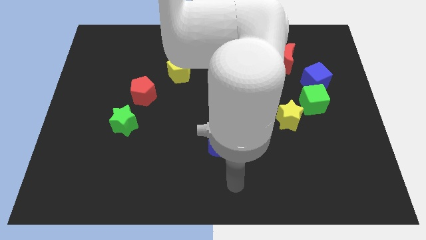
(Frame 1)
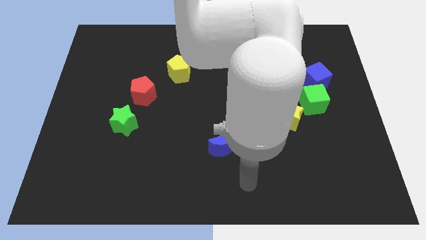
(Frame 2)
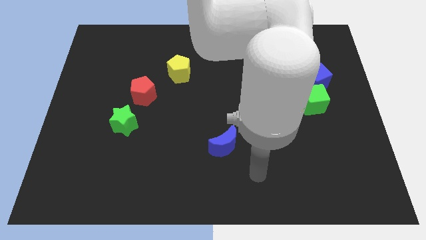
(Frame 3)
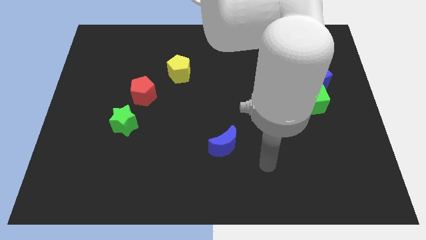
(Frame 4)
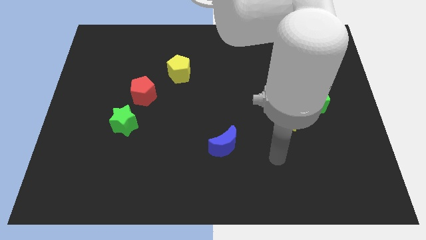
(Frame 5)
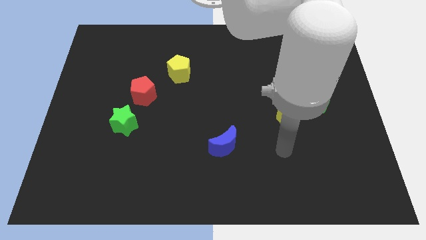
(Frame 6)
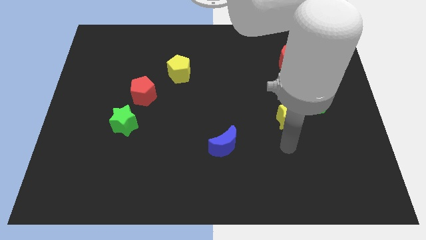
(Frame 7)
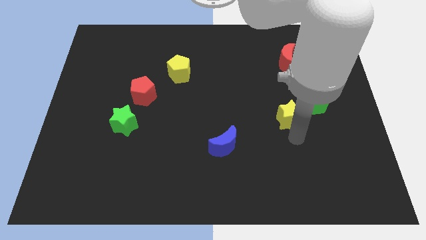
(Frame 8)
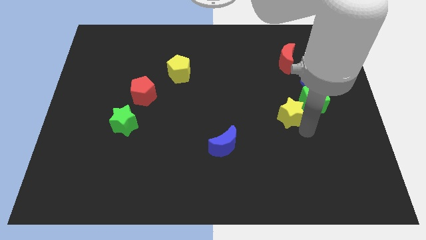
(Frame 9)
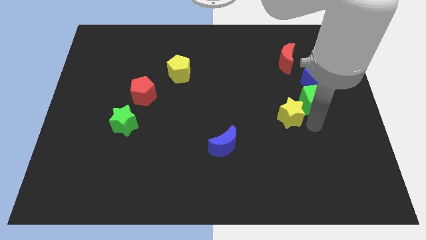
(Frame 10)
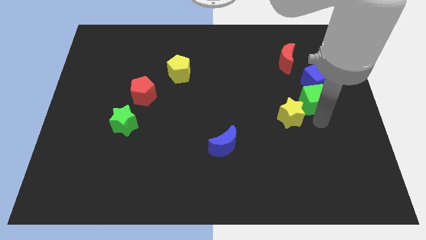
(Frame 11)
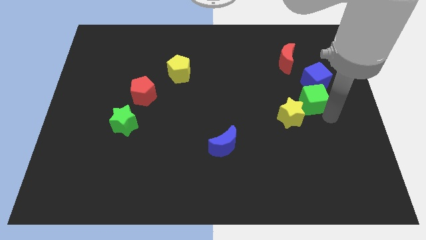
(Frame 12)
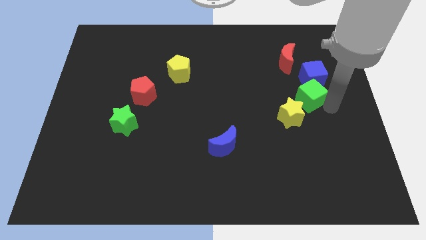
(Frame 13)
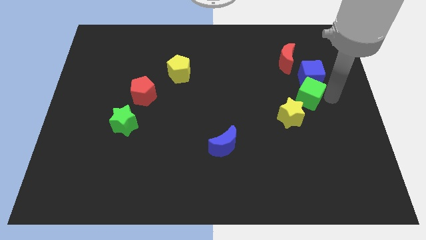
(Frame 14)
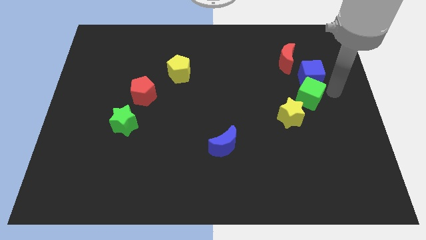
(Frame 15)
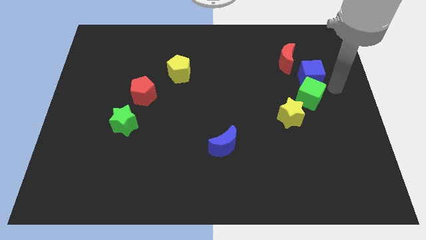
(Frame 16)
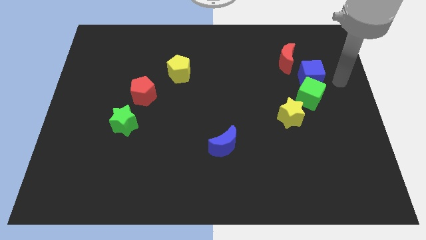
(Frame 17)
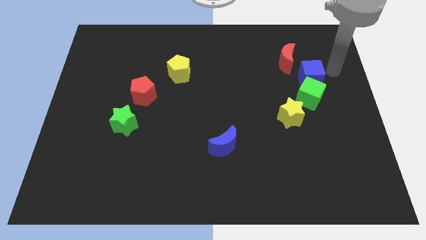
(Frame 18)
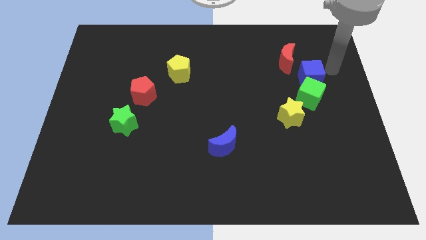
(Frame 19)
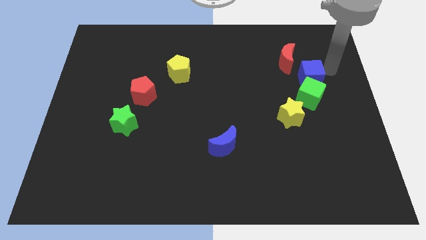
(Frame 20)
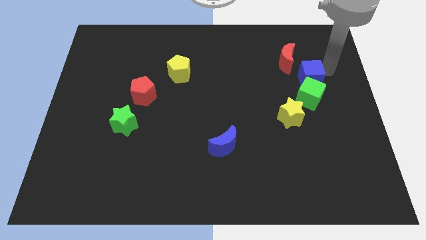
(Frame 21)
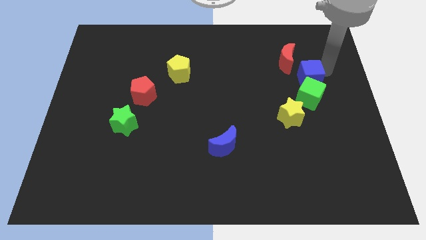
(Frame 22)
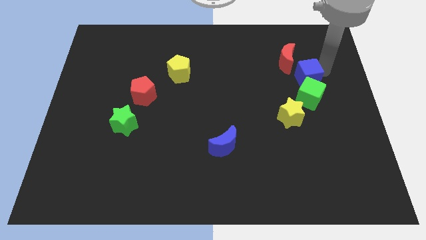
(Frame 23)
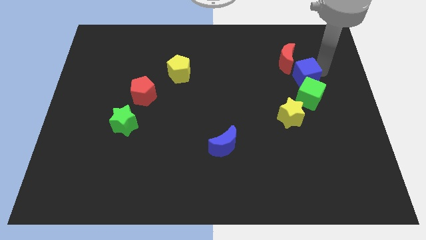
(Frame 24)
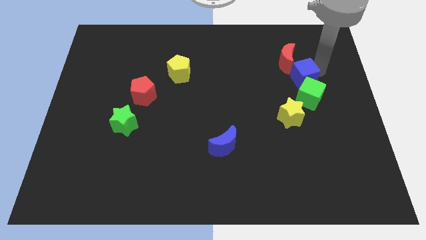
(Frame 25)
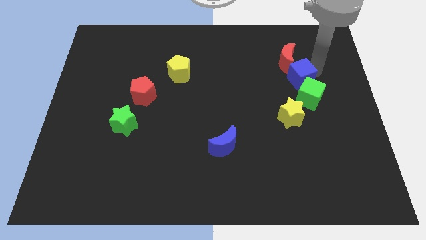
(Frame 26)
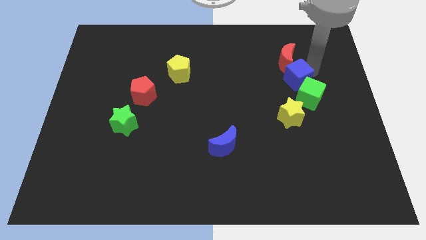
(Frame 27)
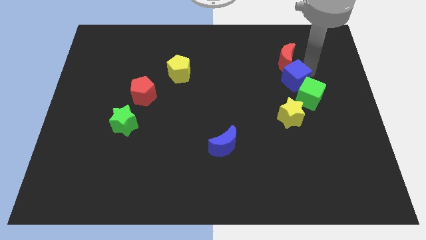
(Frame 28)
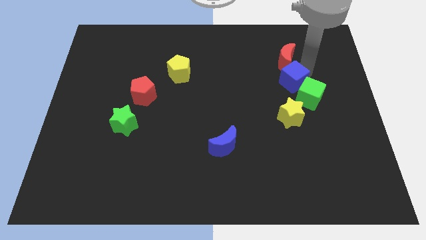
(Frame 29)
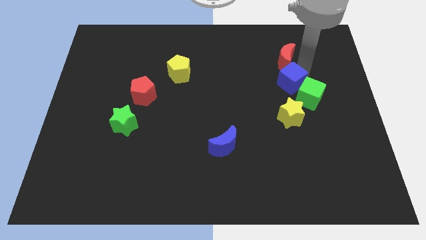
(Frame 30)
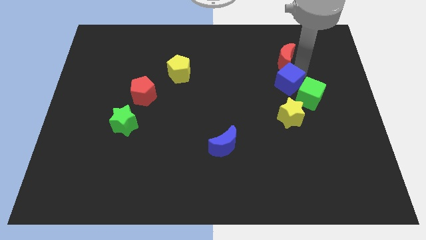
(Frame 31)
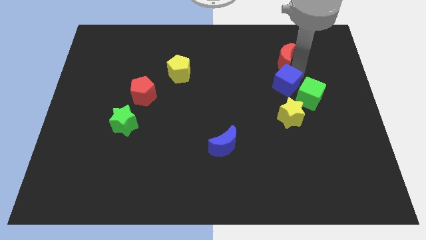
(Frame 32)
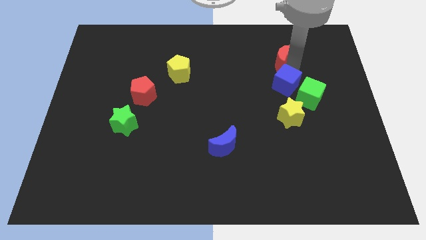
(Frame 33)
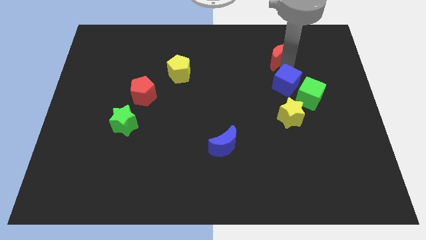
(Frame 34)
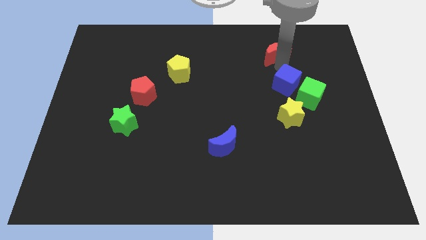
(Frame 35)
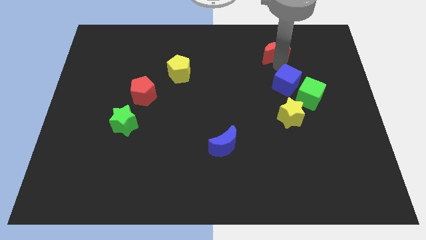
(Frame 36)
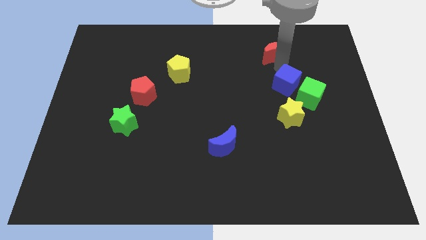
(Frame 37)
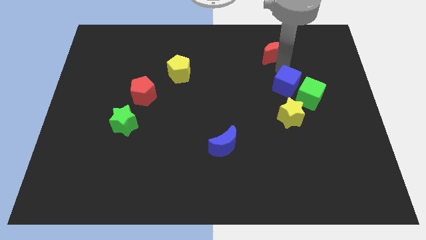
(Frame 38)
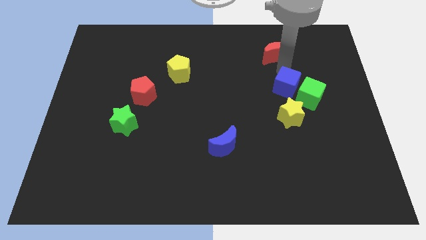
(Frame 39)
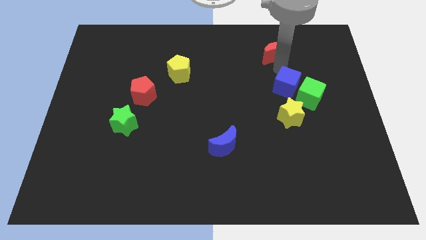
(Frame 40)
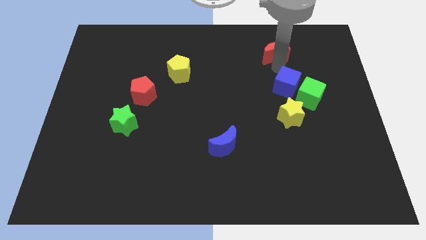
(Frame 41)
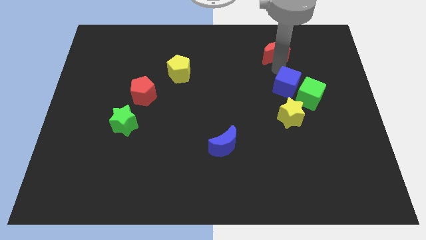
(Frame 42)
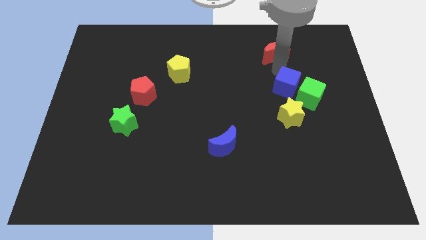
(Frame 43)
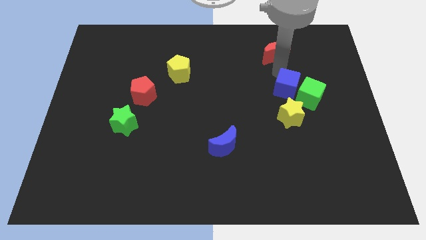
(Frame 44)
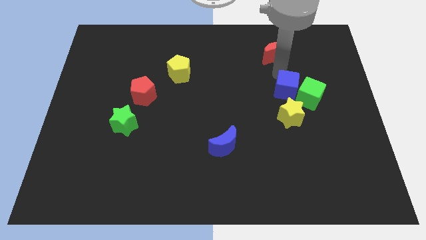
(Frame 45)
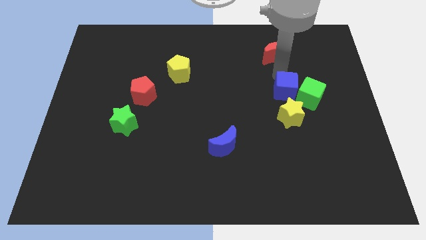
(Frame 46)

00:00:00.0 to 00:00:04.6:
slightly move the blue cube downwards and to the left diagonally

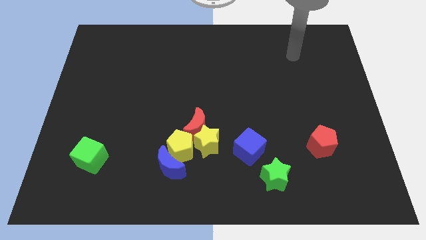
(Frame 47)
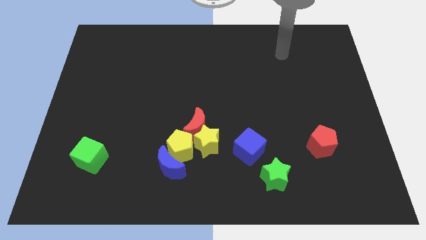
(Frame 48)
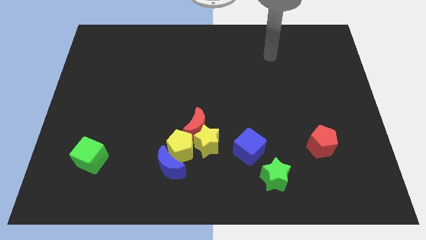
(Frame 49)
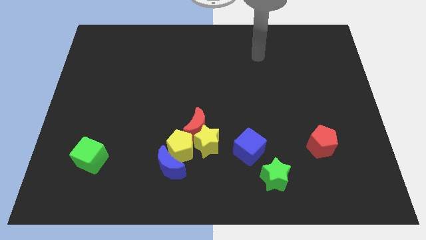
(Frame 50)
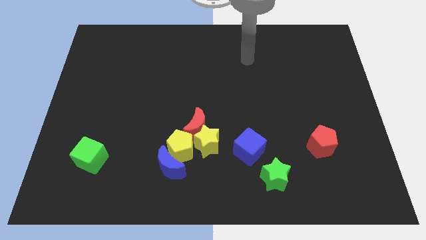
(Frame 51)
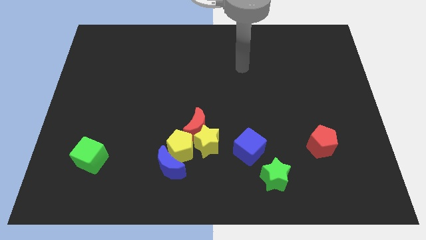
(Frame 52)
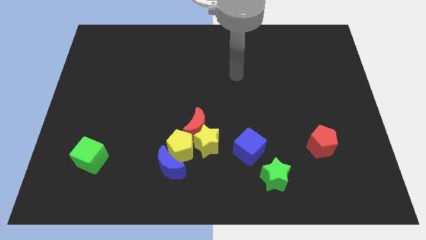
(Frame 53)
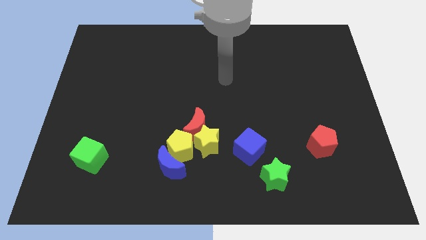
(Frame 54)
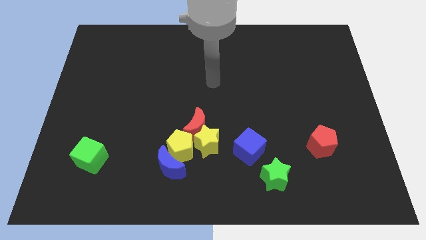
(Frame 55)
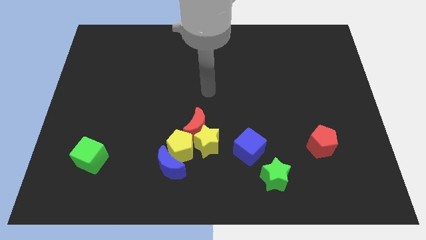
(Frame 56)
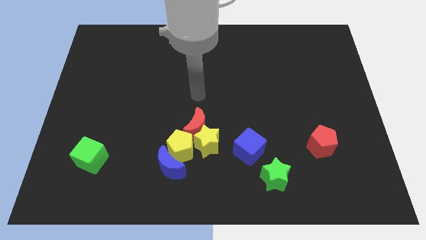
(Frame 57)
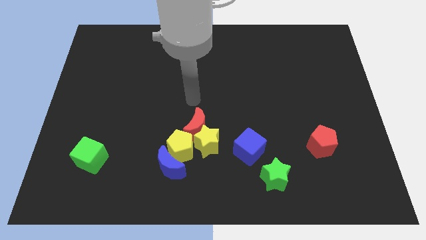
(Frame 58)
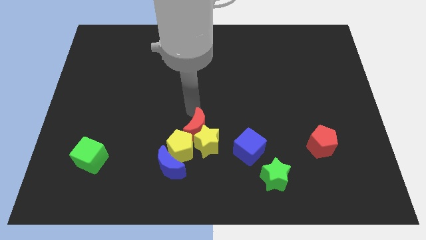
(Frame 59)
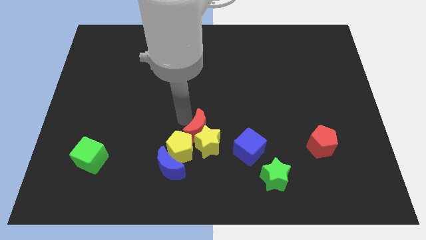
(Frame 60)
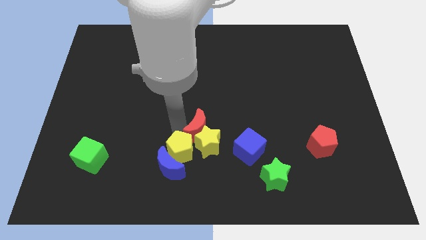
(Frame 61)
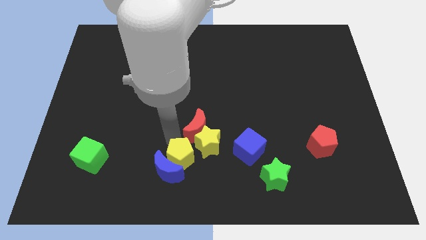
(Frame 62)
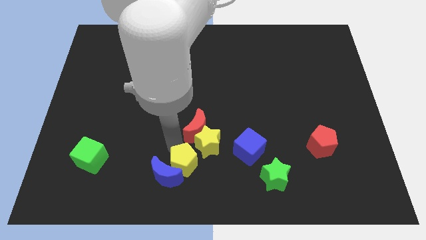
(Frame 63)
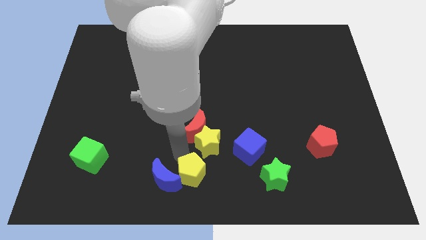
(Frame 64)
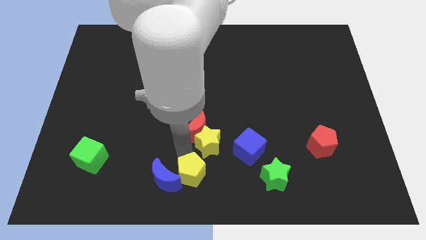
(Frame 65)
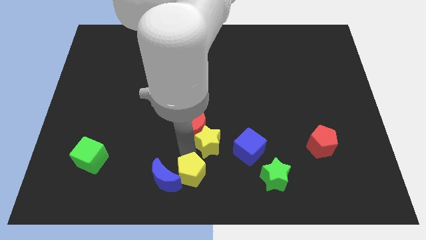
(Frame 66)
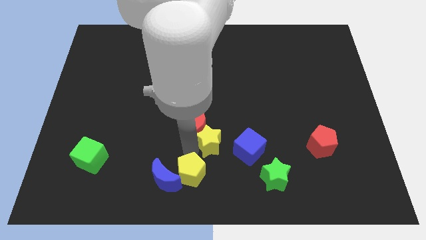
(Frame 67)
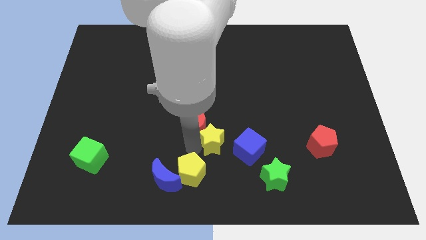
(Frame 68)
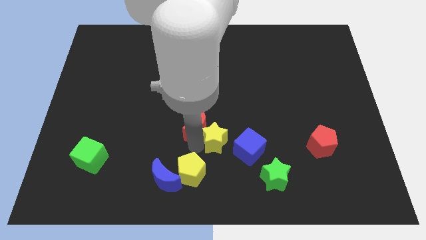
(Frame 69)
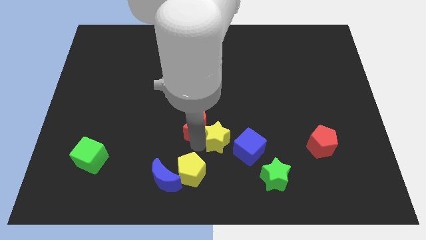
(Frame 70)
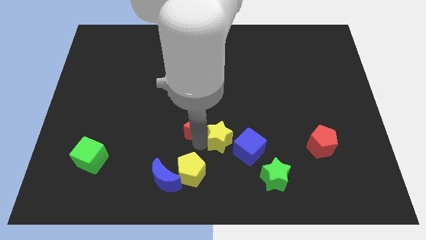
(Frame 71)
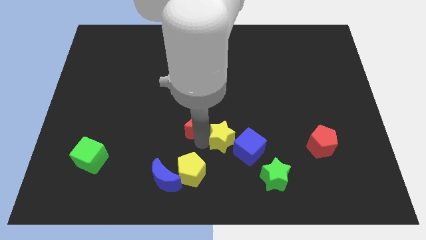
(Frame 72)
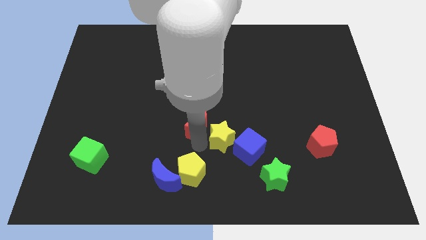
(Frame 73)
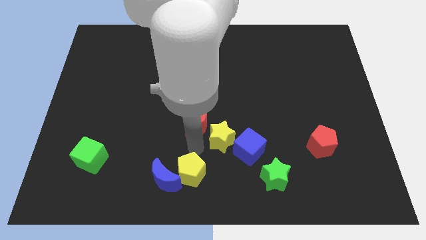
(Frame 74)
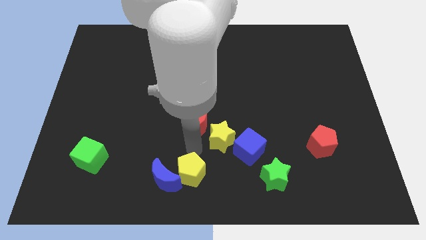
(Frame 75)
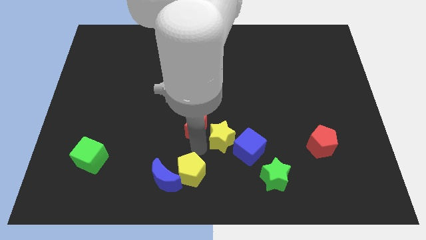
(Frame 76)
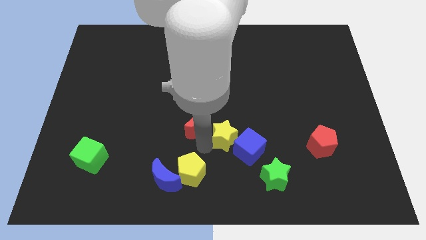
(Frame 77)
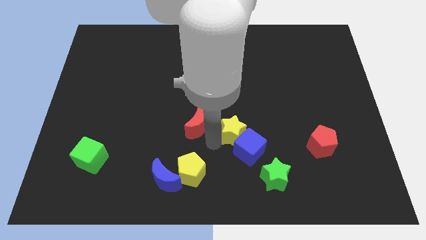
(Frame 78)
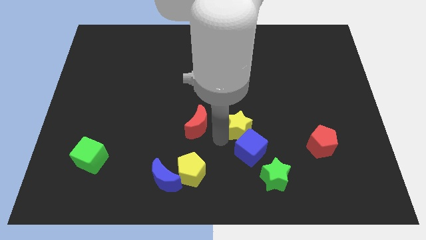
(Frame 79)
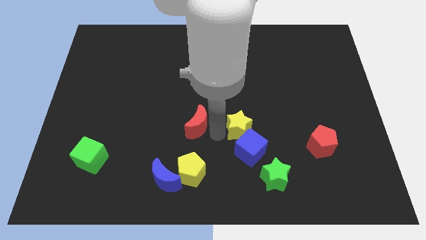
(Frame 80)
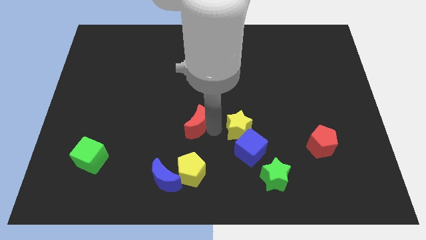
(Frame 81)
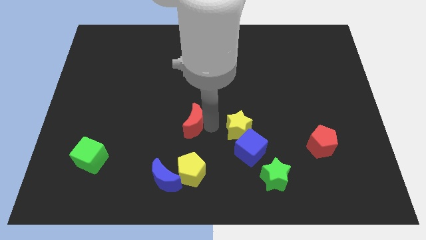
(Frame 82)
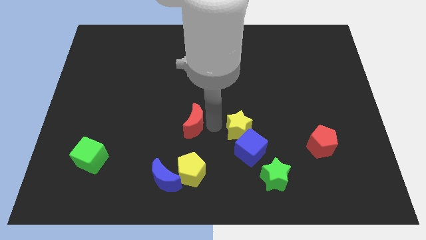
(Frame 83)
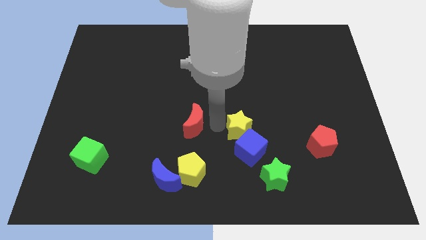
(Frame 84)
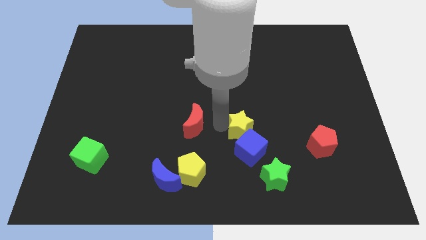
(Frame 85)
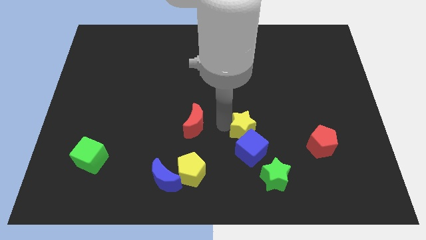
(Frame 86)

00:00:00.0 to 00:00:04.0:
slightly move the yellow star to the right
